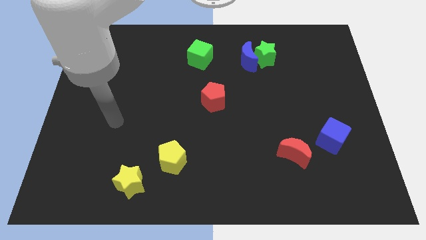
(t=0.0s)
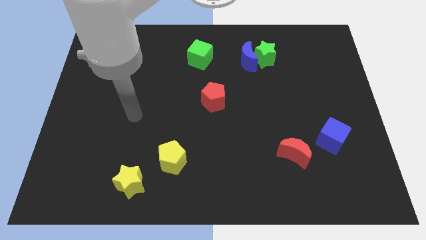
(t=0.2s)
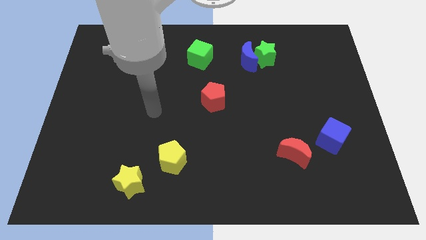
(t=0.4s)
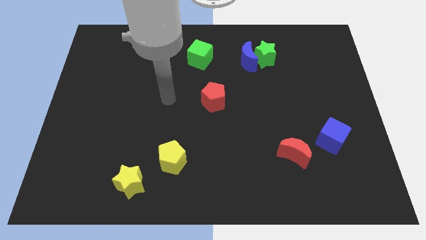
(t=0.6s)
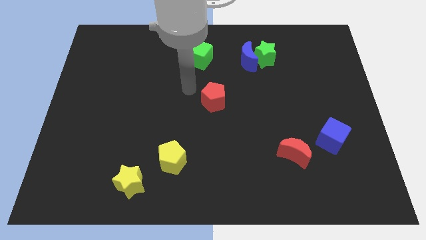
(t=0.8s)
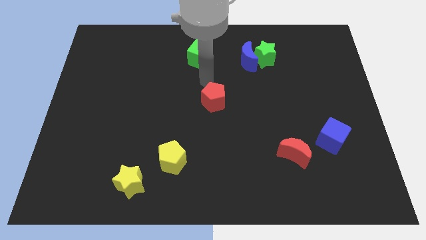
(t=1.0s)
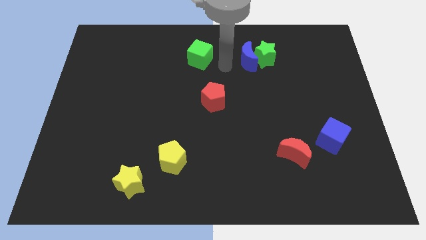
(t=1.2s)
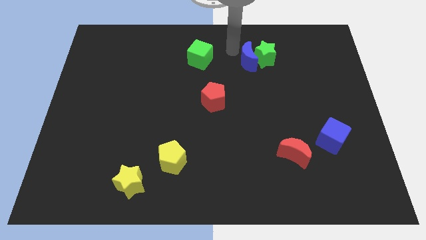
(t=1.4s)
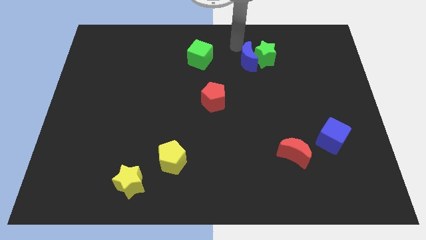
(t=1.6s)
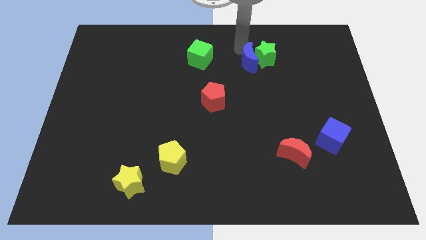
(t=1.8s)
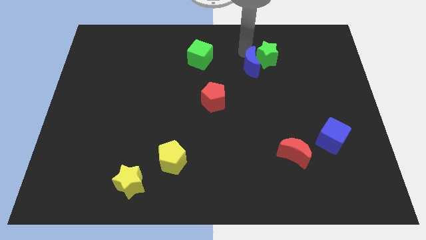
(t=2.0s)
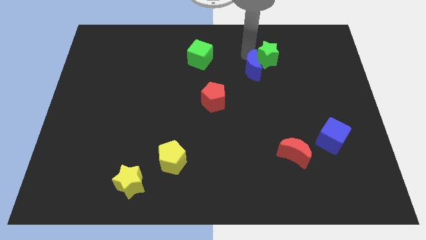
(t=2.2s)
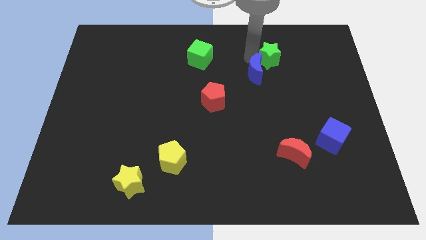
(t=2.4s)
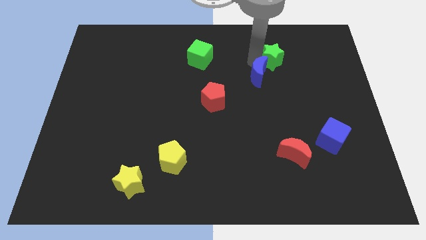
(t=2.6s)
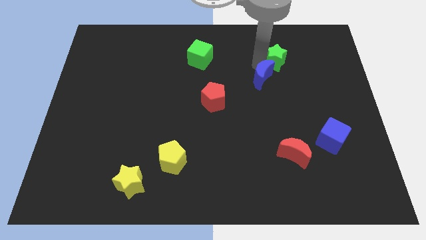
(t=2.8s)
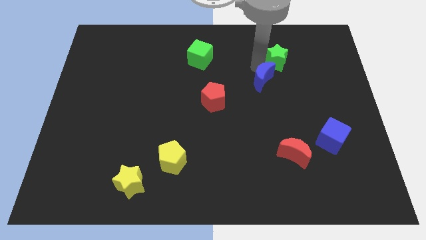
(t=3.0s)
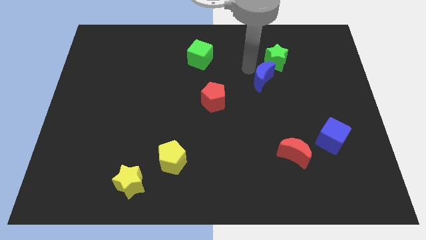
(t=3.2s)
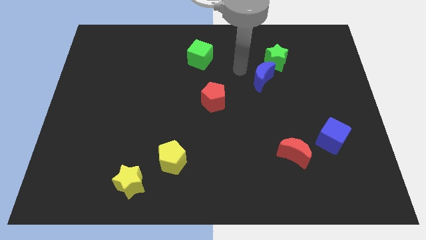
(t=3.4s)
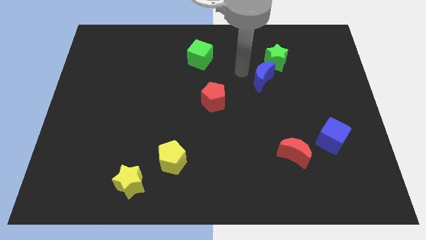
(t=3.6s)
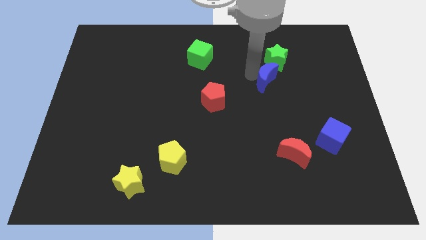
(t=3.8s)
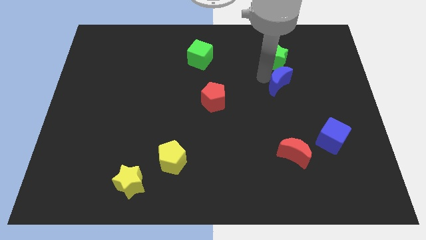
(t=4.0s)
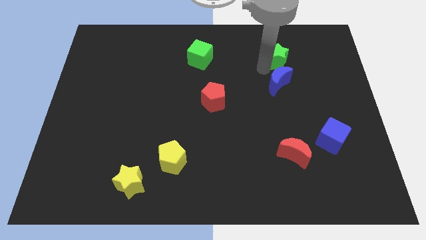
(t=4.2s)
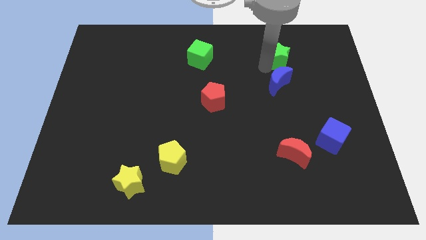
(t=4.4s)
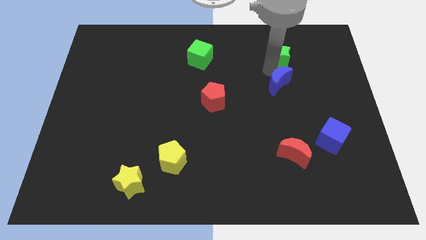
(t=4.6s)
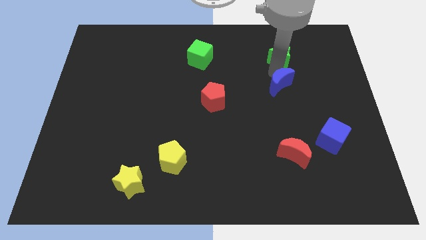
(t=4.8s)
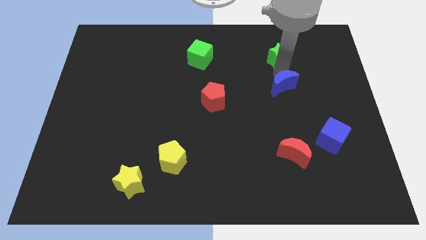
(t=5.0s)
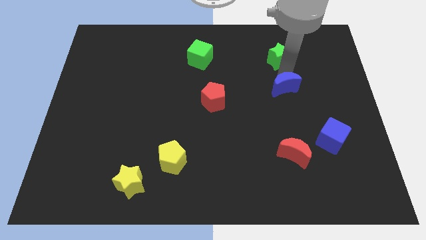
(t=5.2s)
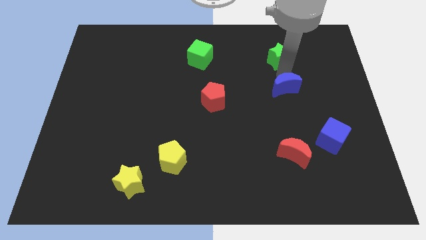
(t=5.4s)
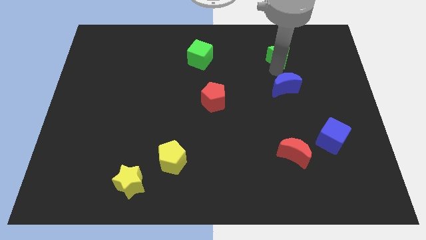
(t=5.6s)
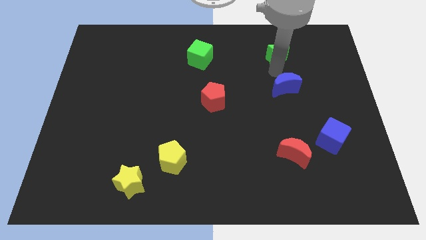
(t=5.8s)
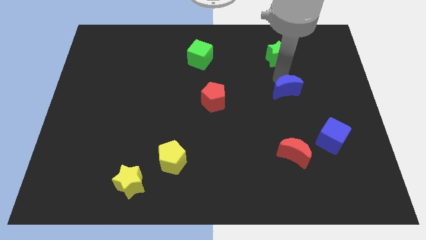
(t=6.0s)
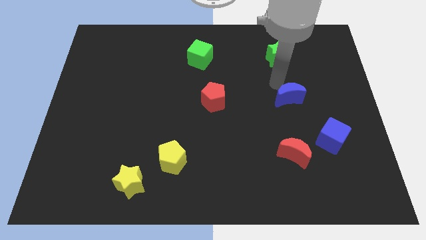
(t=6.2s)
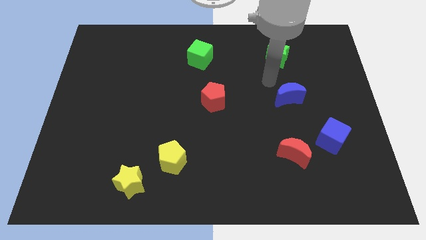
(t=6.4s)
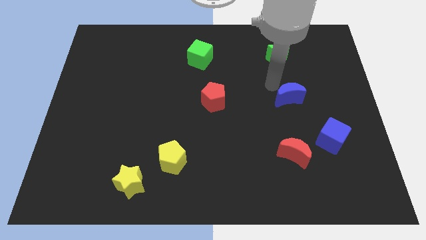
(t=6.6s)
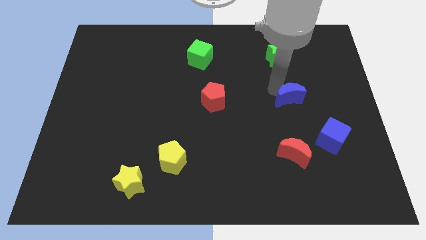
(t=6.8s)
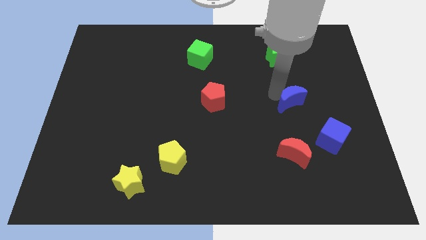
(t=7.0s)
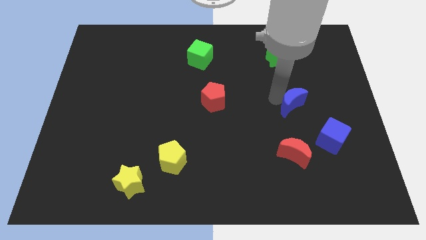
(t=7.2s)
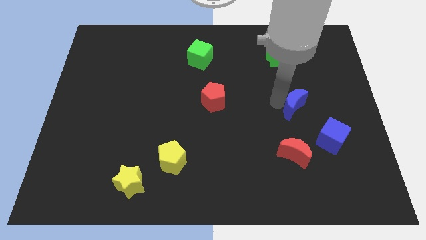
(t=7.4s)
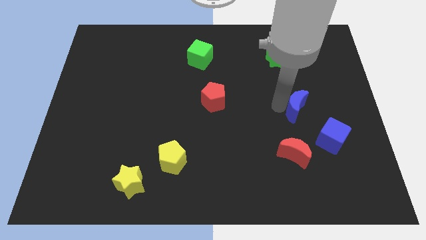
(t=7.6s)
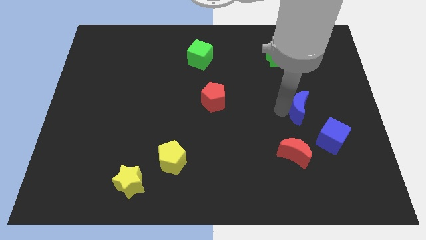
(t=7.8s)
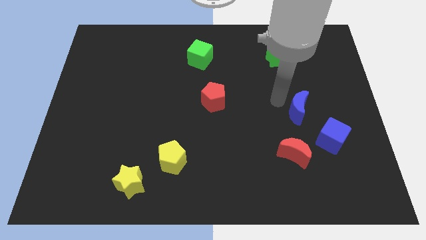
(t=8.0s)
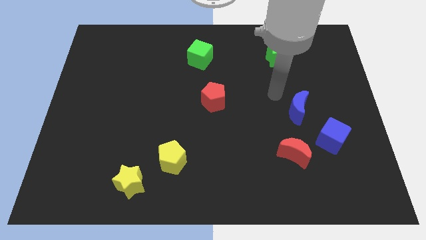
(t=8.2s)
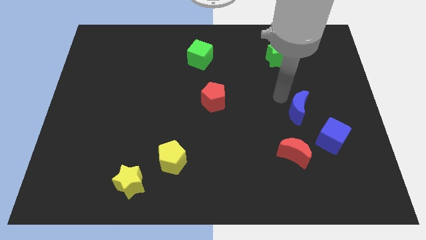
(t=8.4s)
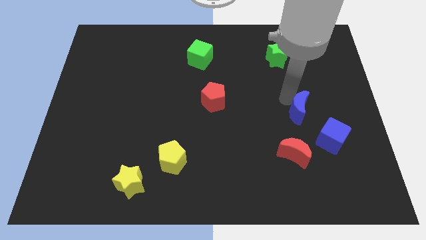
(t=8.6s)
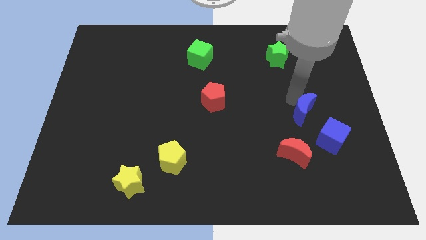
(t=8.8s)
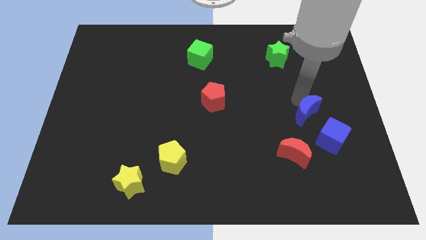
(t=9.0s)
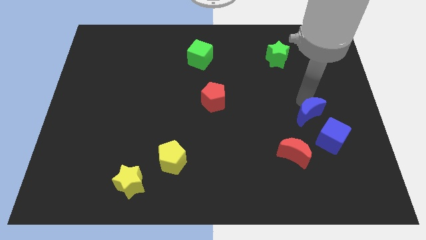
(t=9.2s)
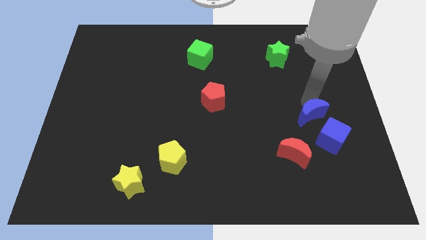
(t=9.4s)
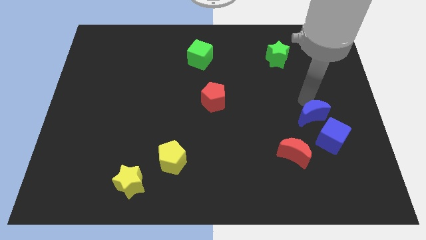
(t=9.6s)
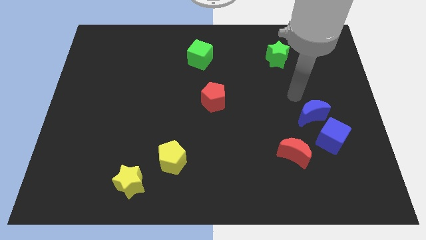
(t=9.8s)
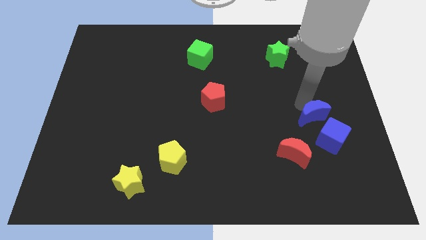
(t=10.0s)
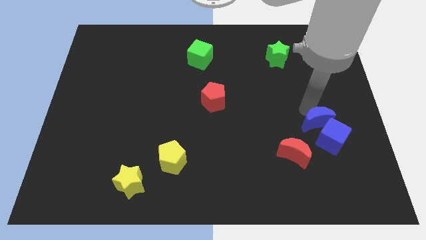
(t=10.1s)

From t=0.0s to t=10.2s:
push the blue moon close to the blue cube

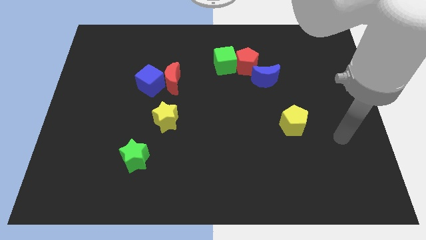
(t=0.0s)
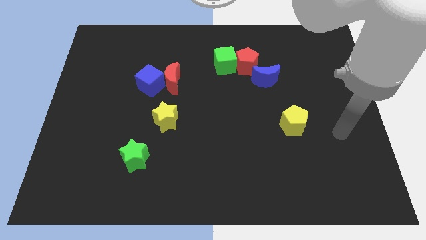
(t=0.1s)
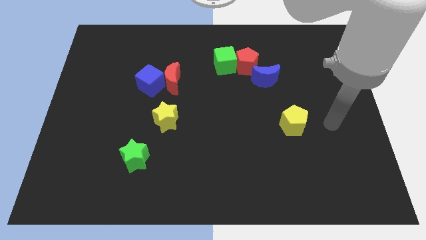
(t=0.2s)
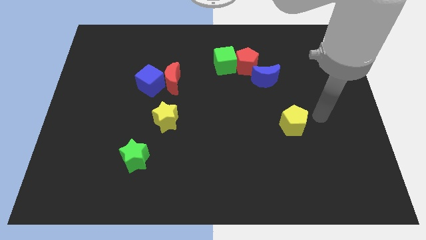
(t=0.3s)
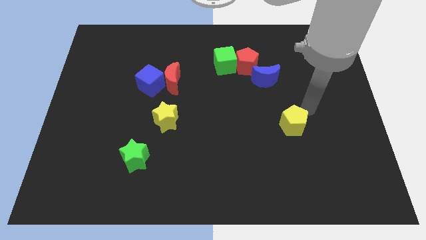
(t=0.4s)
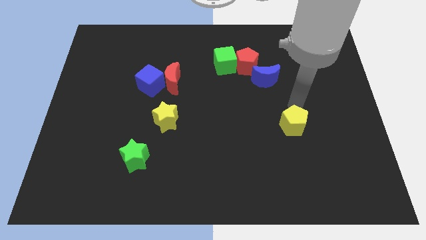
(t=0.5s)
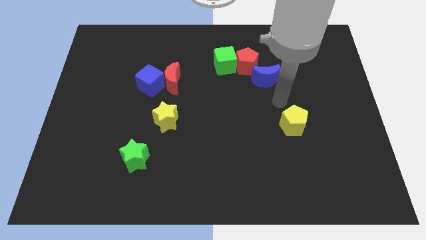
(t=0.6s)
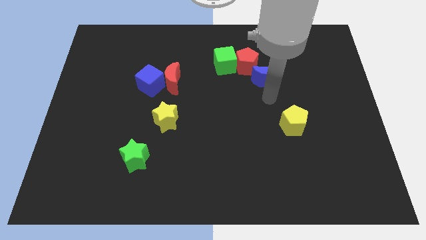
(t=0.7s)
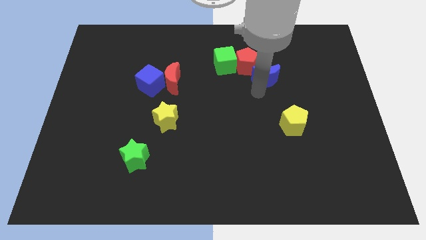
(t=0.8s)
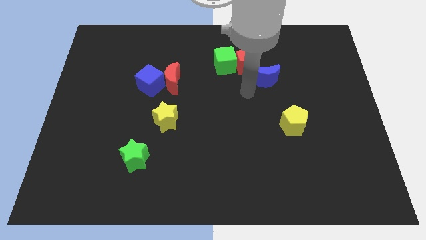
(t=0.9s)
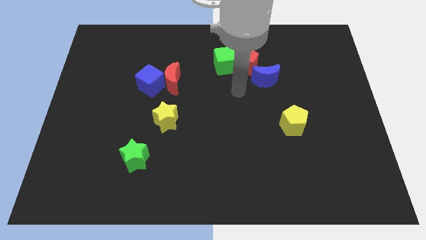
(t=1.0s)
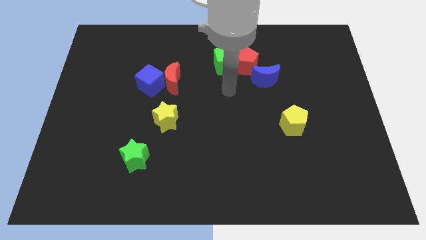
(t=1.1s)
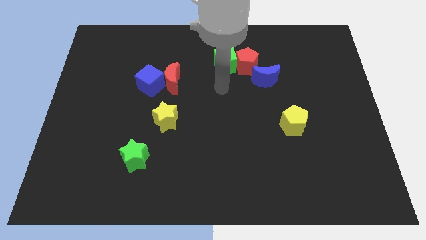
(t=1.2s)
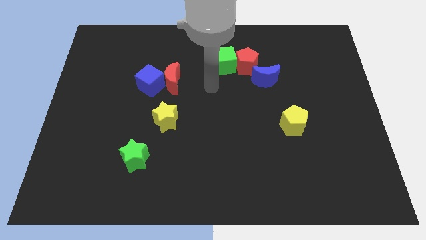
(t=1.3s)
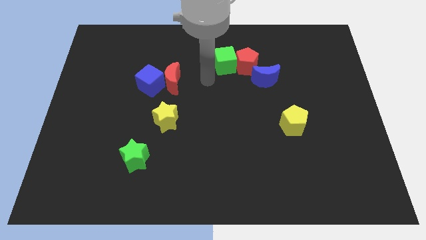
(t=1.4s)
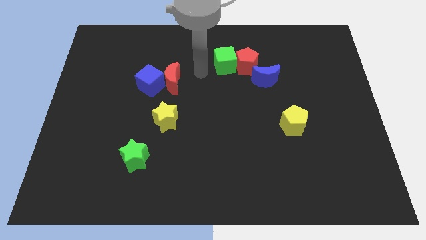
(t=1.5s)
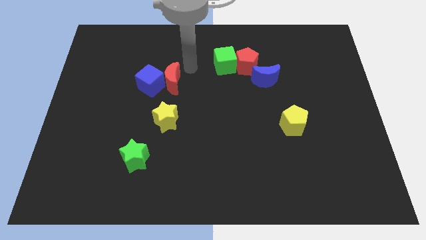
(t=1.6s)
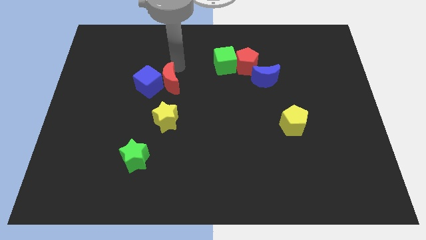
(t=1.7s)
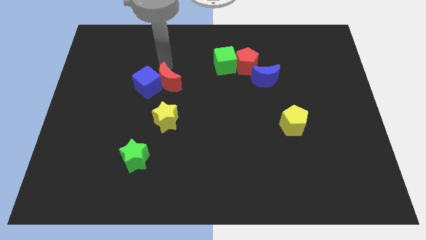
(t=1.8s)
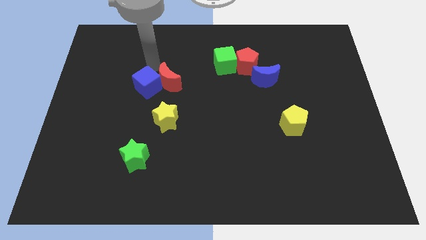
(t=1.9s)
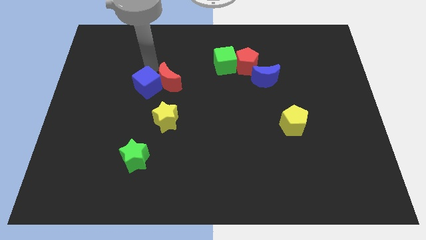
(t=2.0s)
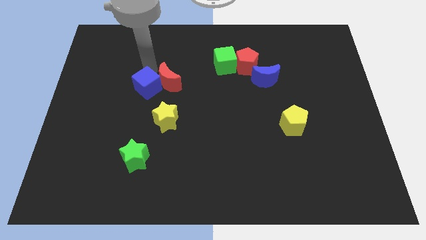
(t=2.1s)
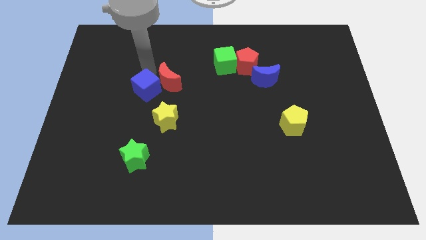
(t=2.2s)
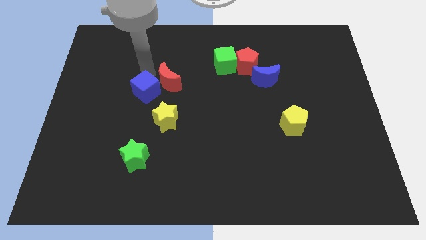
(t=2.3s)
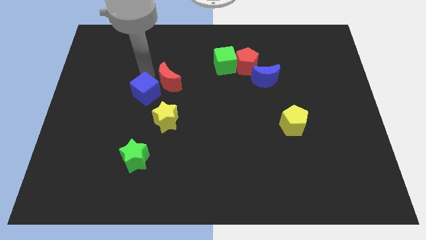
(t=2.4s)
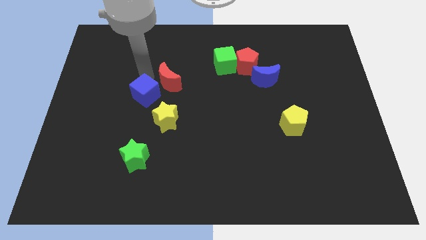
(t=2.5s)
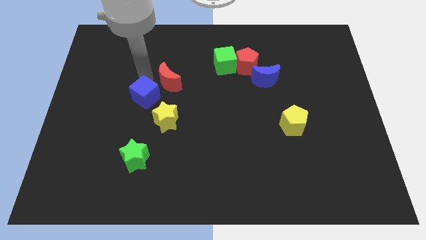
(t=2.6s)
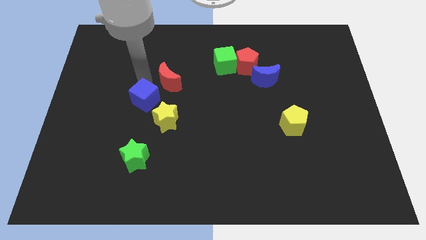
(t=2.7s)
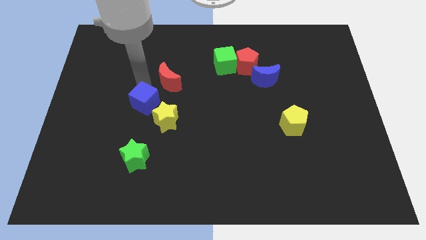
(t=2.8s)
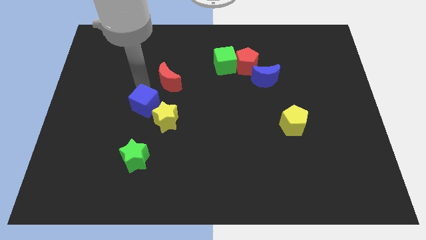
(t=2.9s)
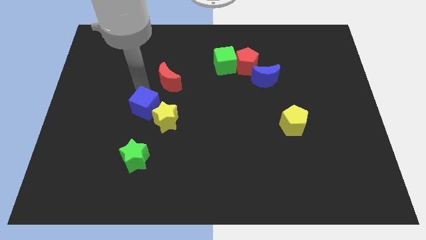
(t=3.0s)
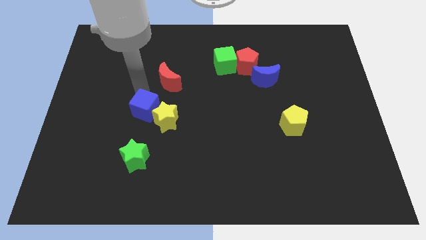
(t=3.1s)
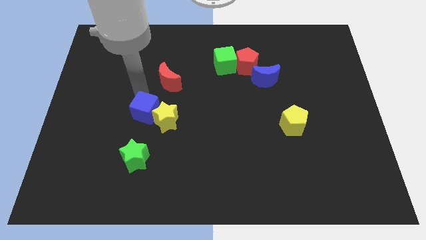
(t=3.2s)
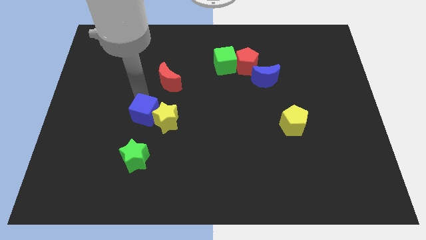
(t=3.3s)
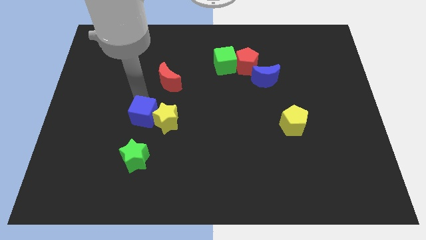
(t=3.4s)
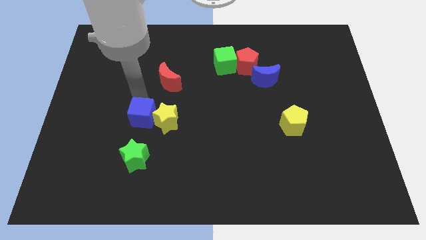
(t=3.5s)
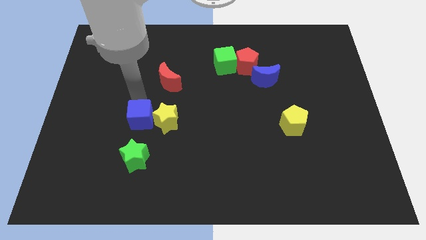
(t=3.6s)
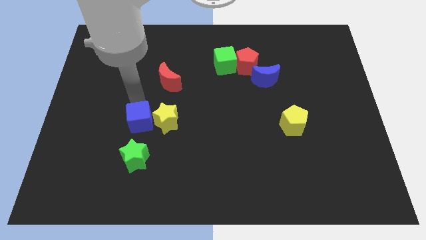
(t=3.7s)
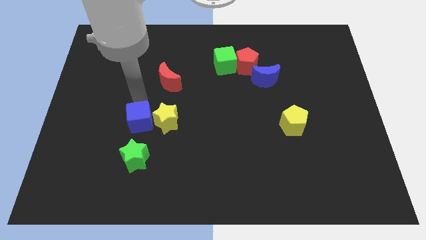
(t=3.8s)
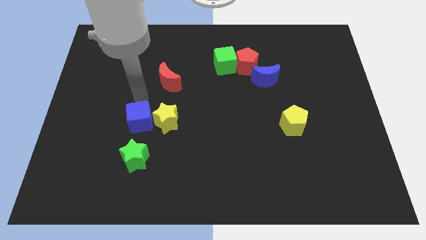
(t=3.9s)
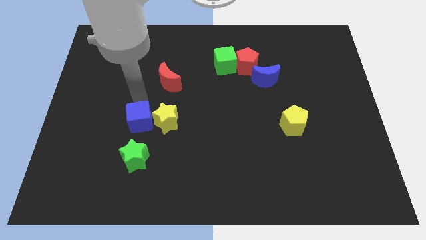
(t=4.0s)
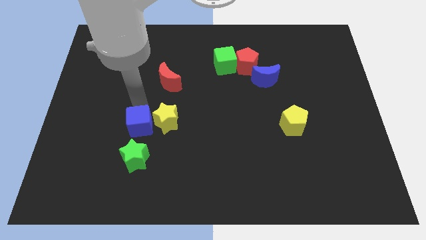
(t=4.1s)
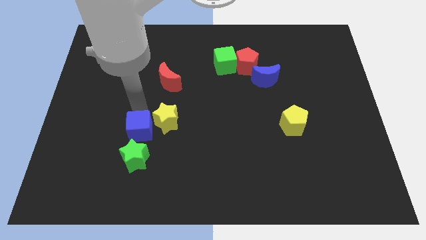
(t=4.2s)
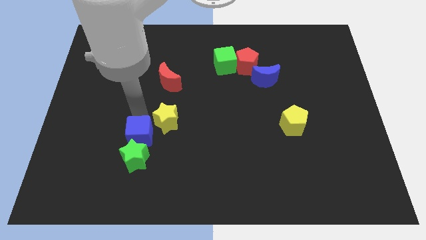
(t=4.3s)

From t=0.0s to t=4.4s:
slide the blue cube close to the green star
